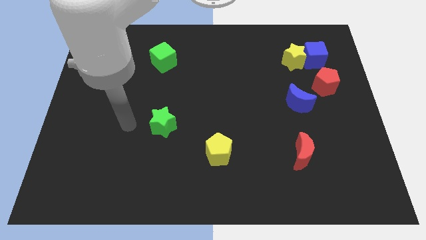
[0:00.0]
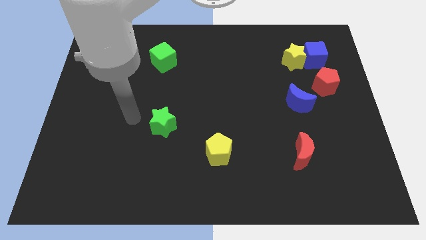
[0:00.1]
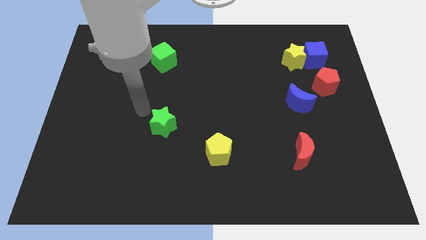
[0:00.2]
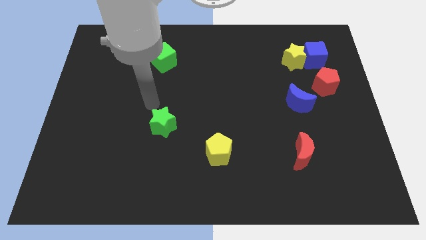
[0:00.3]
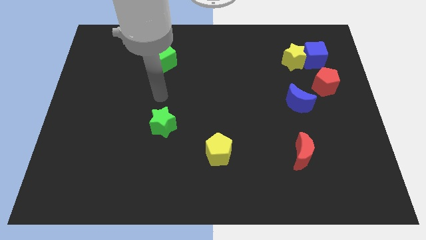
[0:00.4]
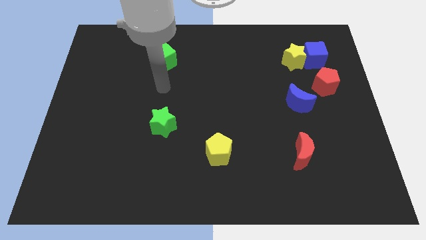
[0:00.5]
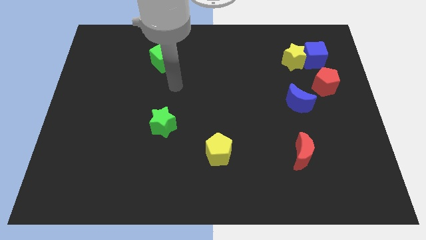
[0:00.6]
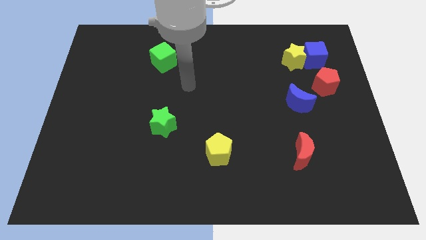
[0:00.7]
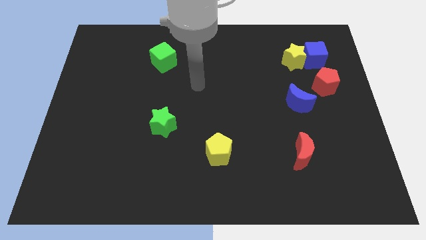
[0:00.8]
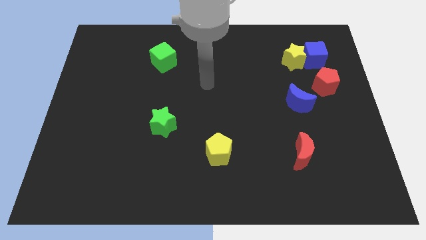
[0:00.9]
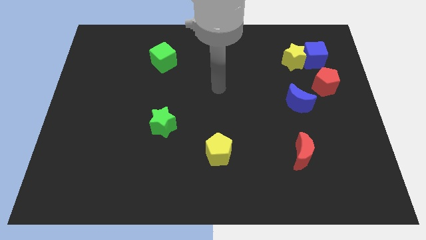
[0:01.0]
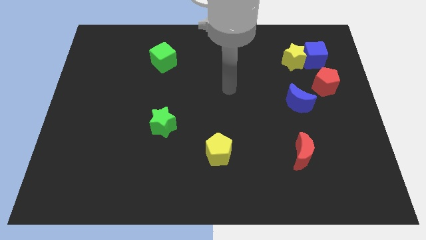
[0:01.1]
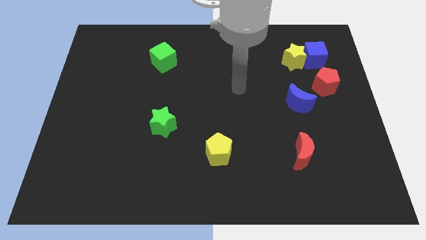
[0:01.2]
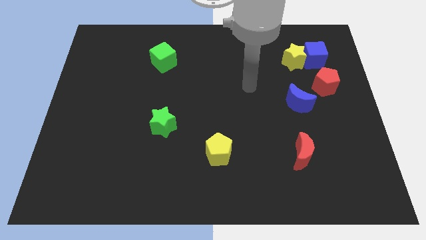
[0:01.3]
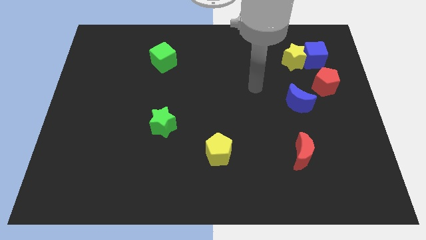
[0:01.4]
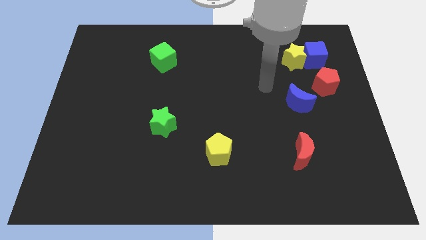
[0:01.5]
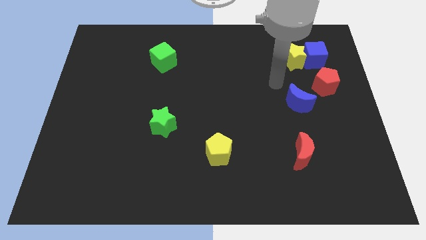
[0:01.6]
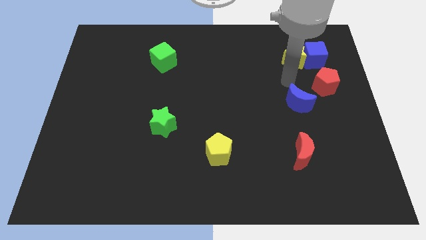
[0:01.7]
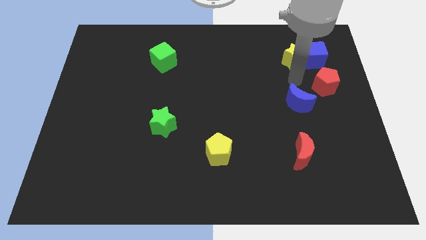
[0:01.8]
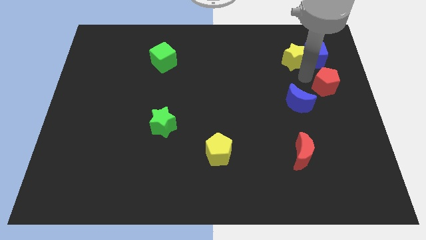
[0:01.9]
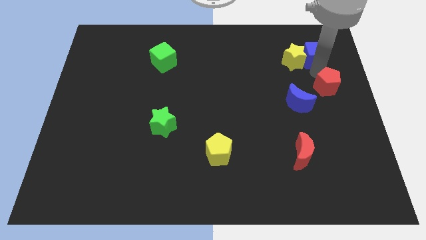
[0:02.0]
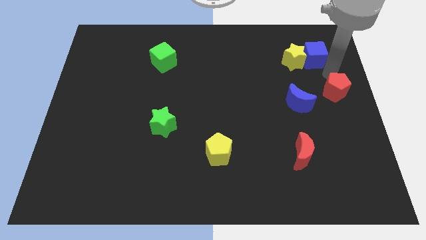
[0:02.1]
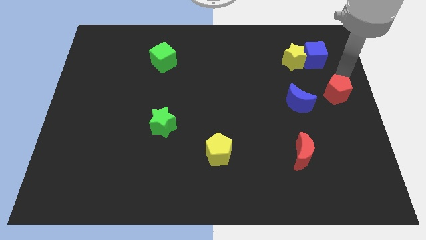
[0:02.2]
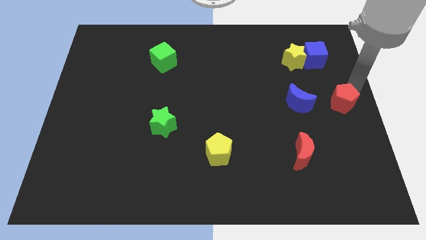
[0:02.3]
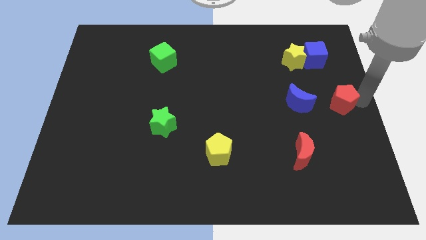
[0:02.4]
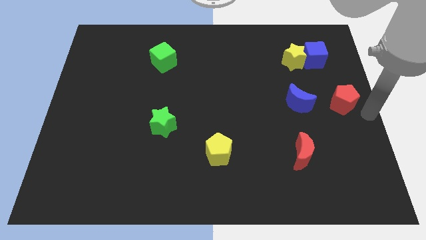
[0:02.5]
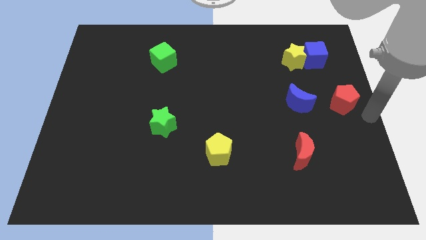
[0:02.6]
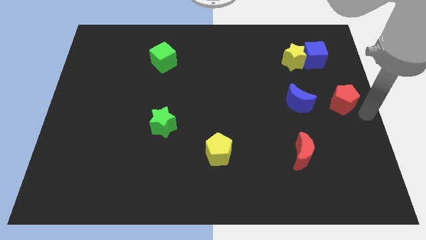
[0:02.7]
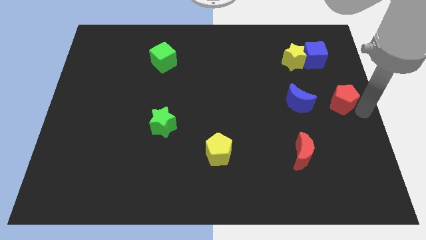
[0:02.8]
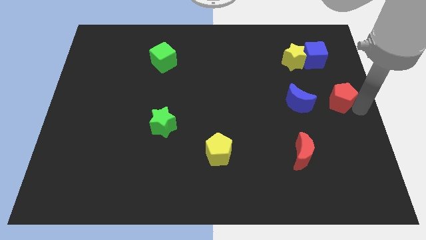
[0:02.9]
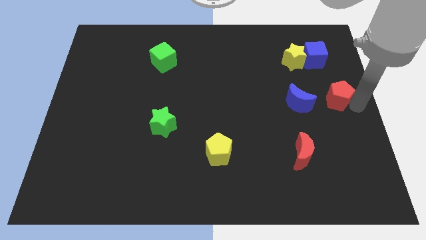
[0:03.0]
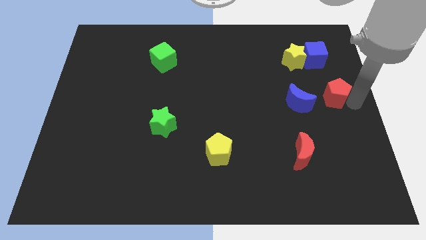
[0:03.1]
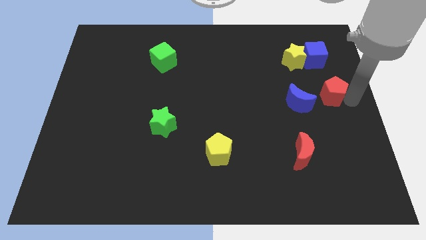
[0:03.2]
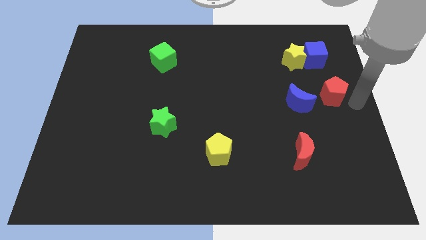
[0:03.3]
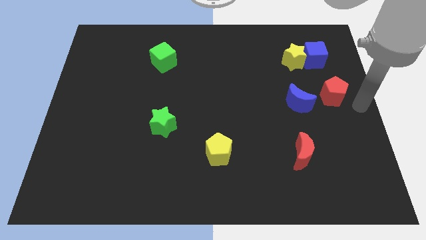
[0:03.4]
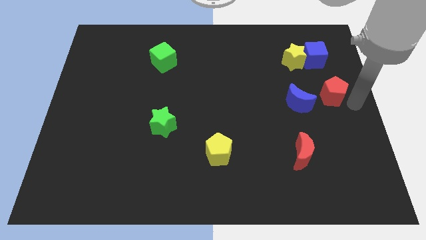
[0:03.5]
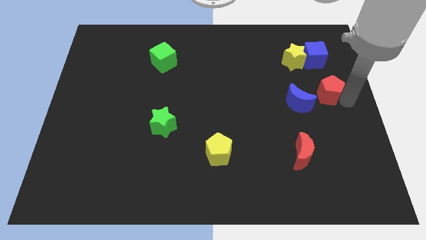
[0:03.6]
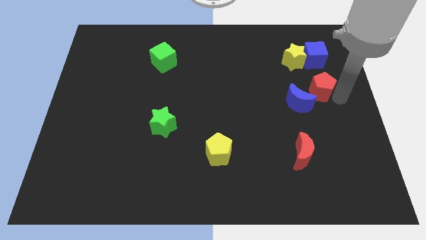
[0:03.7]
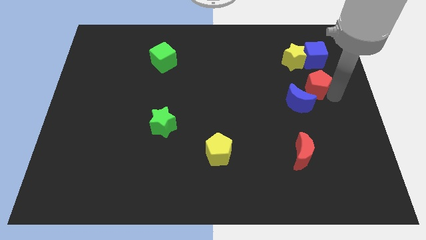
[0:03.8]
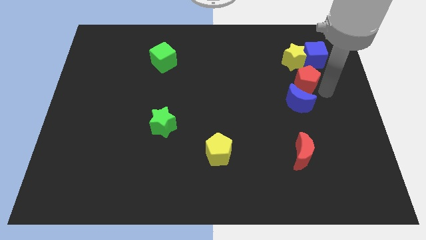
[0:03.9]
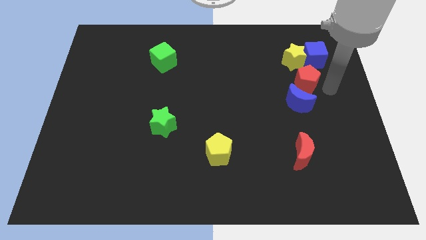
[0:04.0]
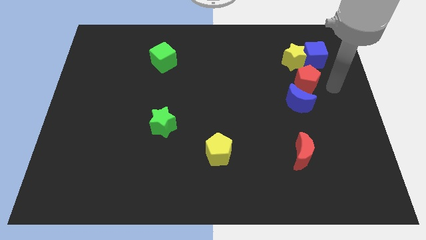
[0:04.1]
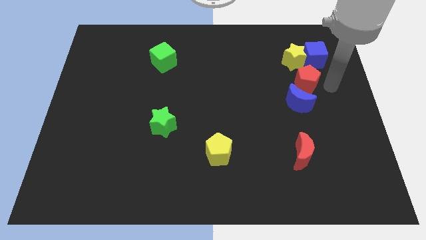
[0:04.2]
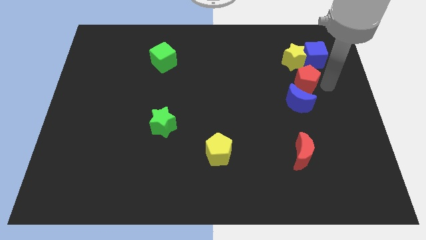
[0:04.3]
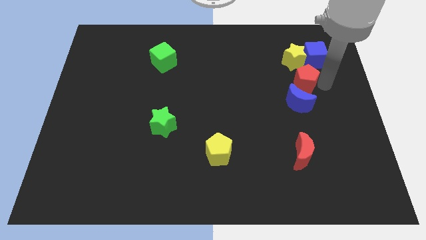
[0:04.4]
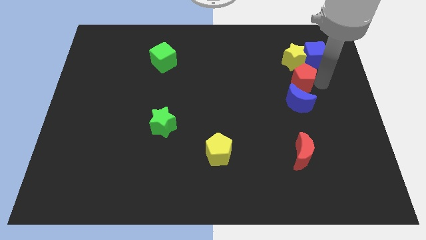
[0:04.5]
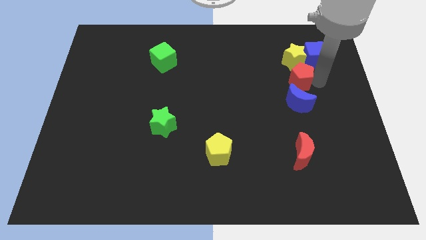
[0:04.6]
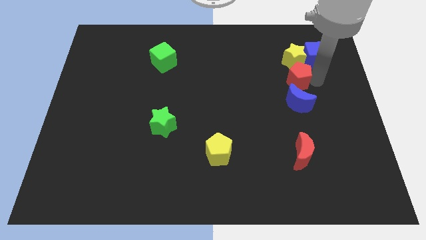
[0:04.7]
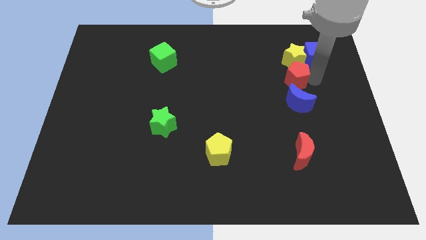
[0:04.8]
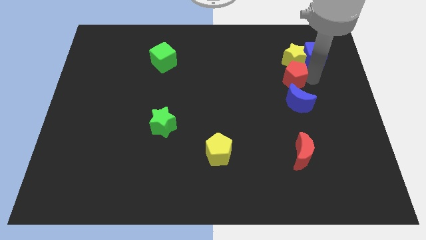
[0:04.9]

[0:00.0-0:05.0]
slightly slide the red pentagon left

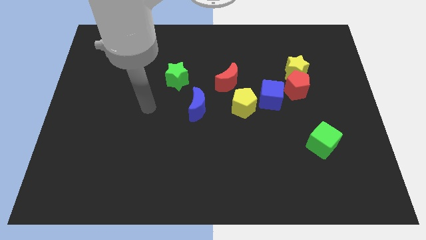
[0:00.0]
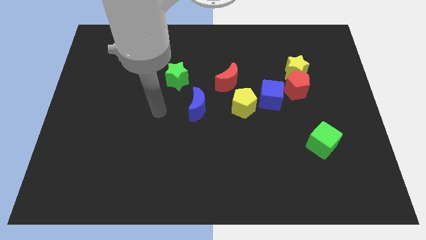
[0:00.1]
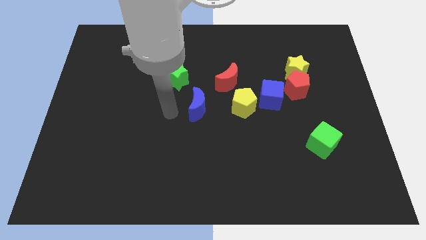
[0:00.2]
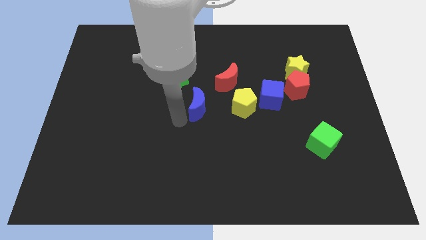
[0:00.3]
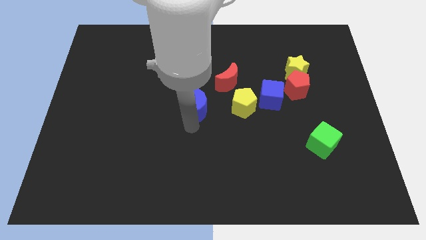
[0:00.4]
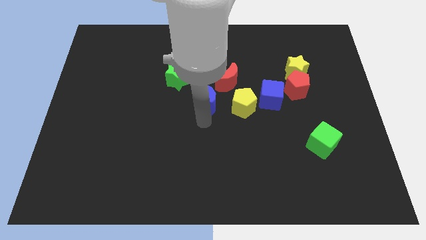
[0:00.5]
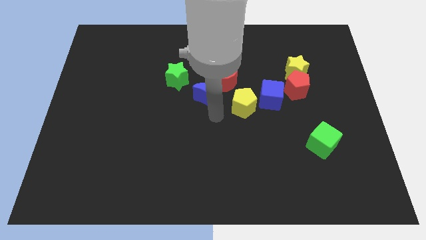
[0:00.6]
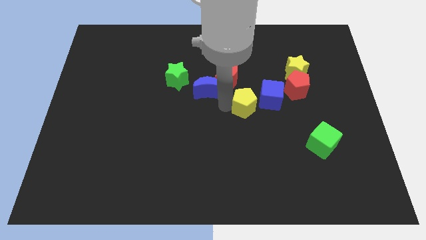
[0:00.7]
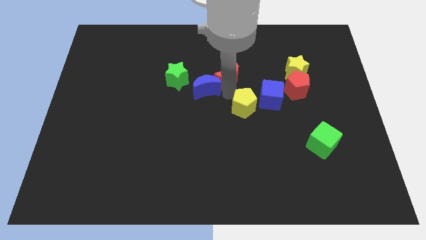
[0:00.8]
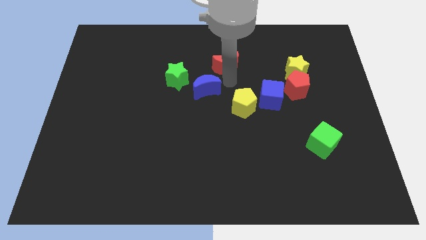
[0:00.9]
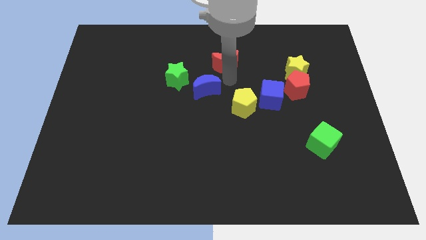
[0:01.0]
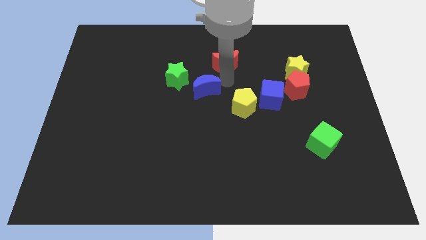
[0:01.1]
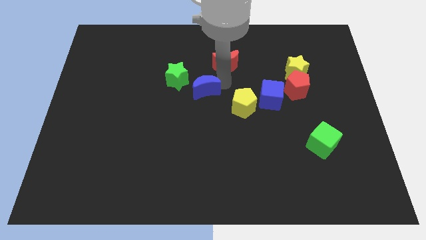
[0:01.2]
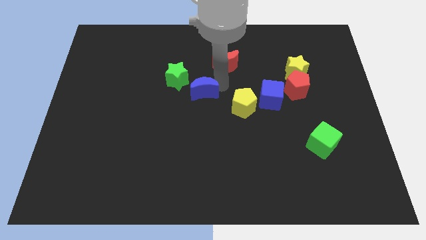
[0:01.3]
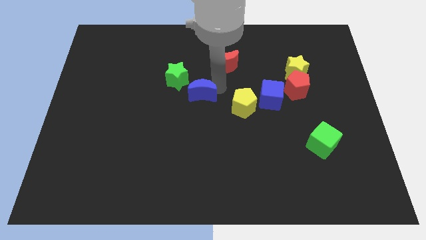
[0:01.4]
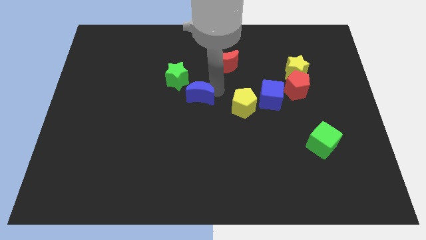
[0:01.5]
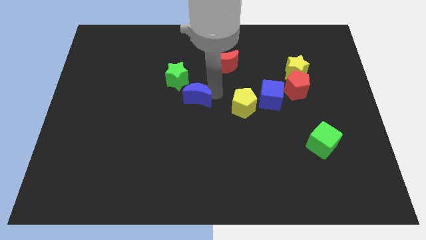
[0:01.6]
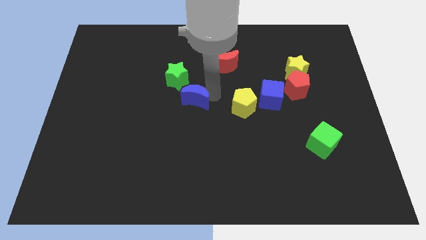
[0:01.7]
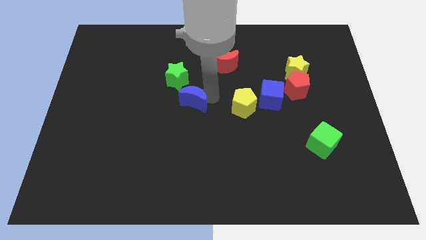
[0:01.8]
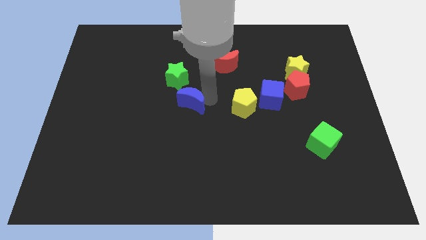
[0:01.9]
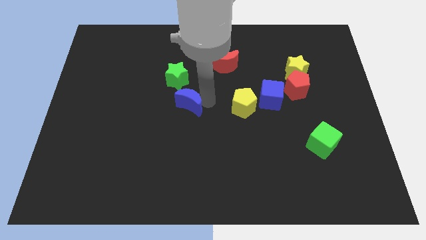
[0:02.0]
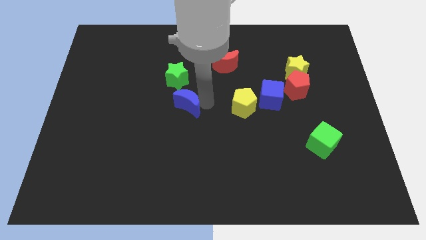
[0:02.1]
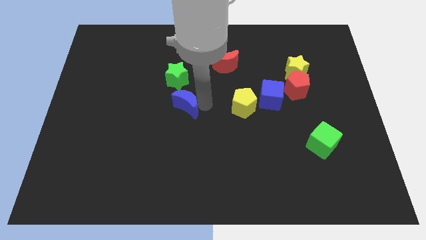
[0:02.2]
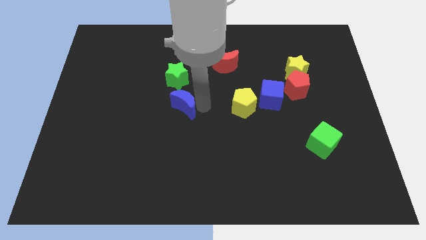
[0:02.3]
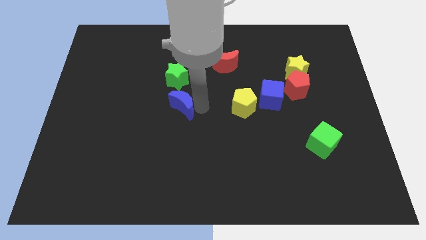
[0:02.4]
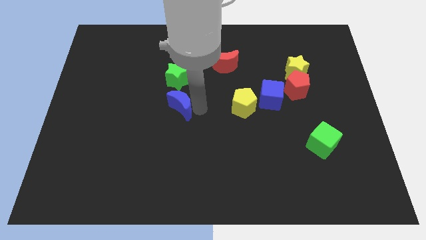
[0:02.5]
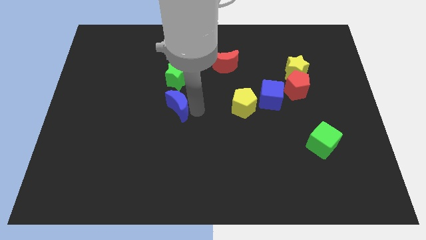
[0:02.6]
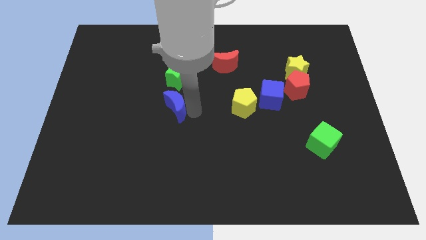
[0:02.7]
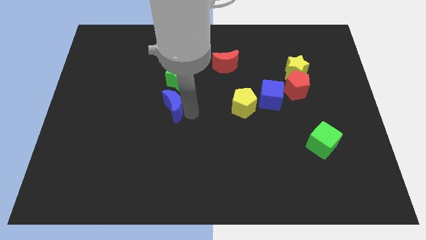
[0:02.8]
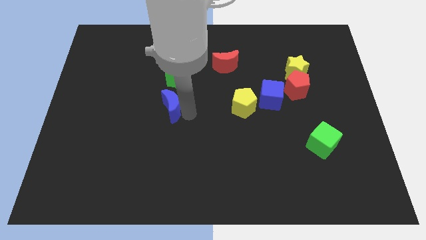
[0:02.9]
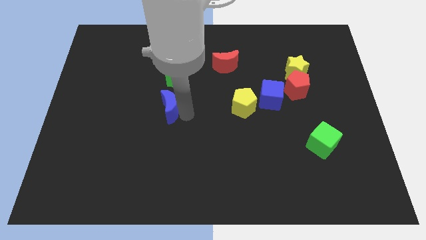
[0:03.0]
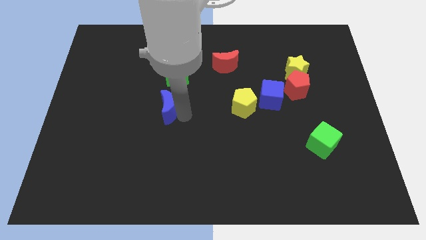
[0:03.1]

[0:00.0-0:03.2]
slightly move the blue moon to the left
